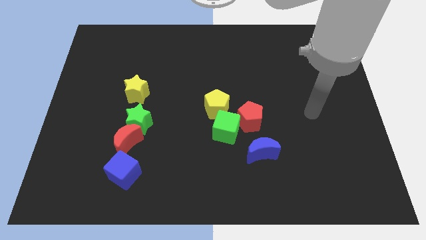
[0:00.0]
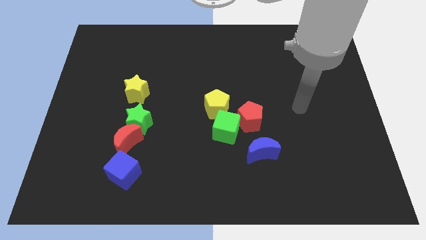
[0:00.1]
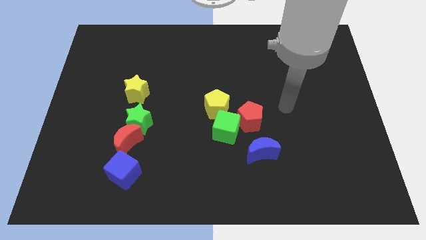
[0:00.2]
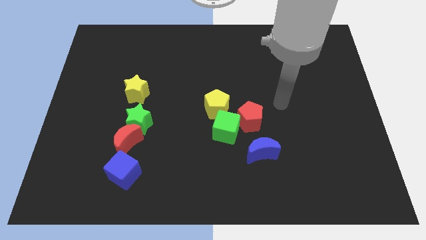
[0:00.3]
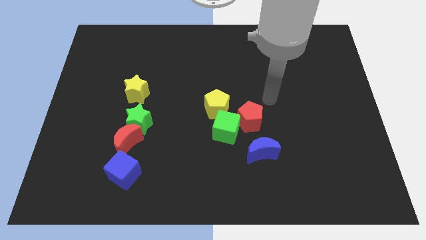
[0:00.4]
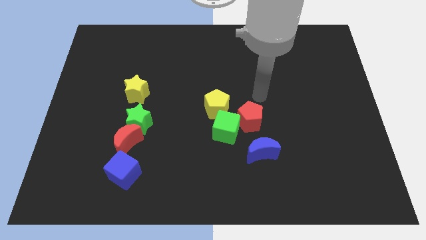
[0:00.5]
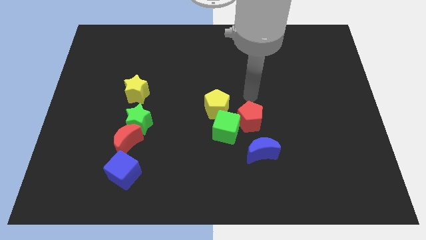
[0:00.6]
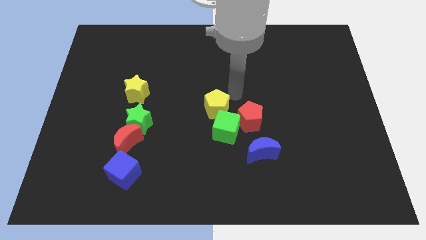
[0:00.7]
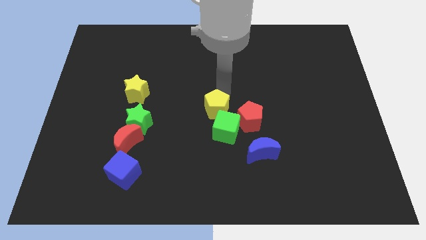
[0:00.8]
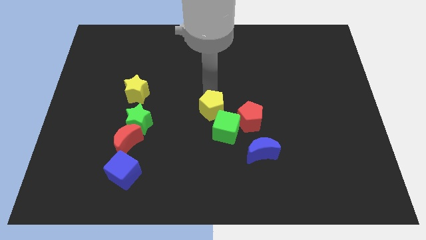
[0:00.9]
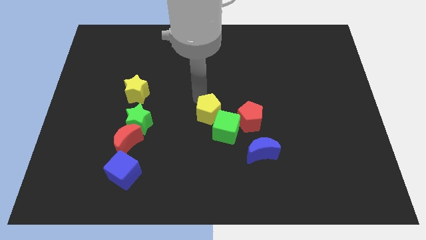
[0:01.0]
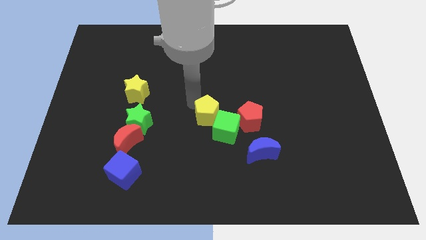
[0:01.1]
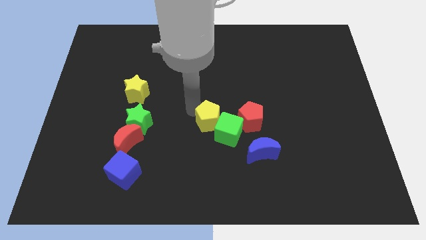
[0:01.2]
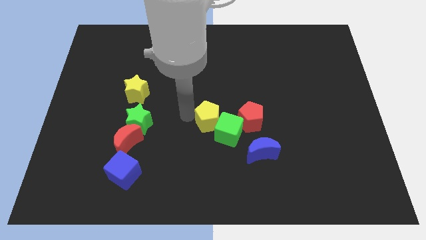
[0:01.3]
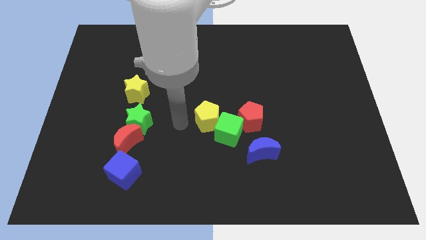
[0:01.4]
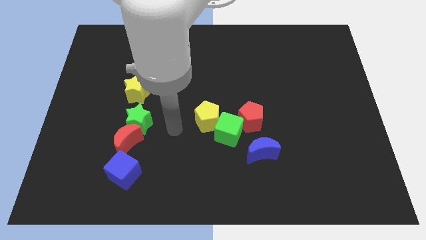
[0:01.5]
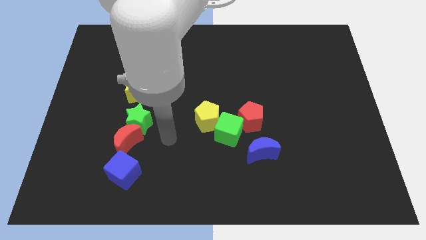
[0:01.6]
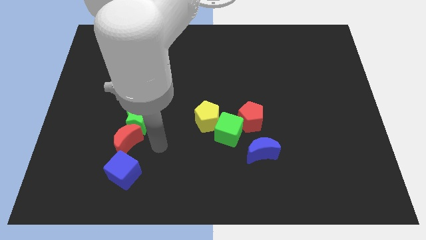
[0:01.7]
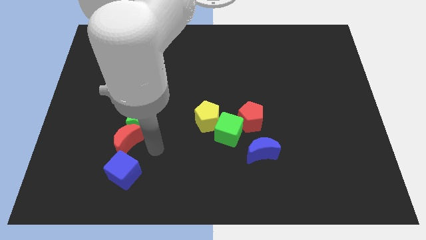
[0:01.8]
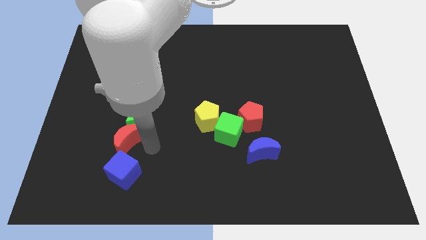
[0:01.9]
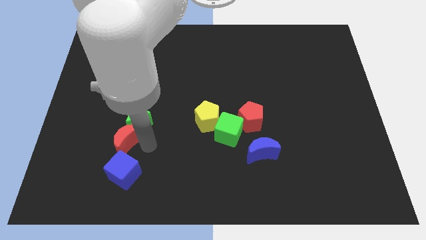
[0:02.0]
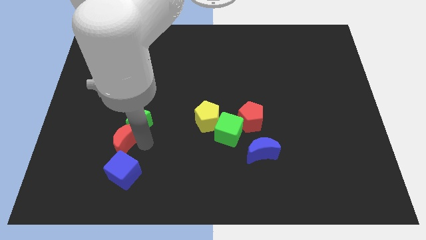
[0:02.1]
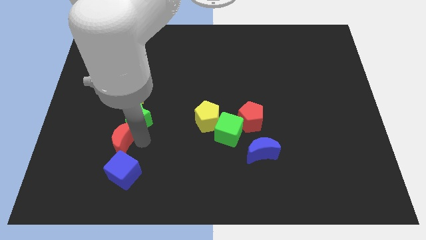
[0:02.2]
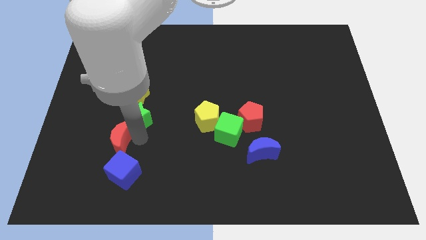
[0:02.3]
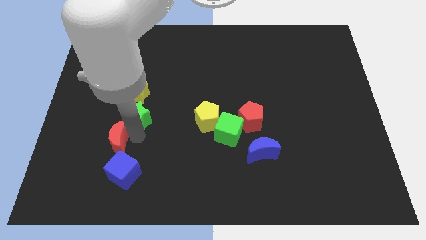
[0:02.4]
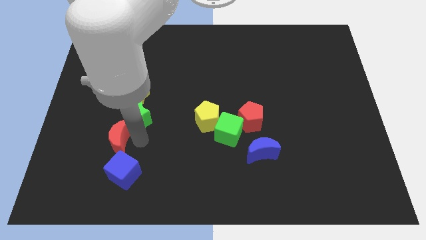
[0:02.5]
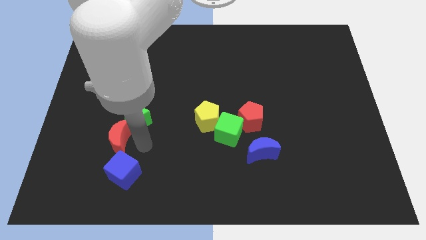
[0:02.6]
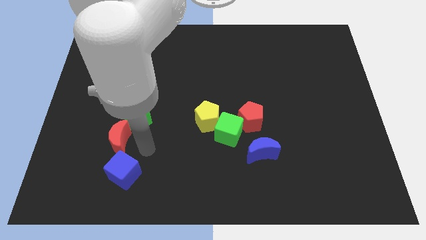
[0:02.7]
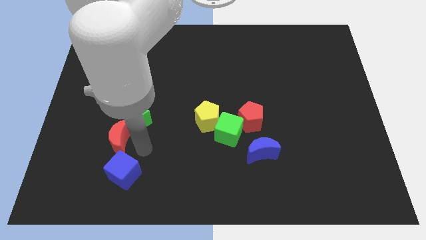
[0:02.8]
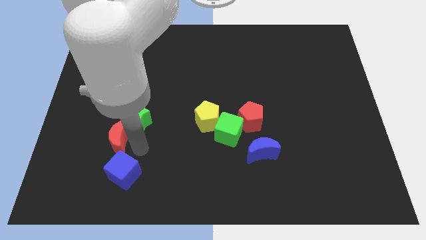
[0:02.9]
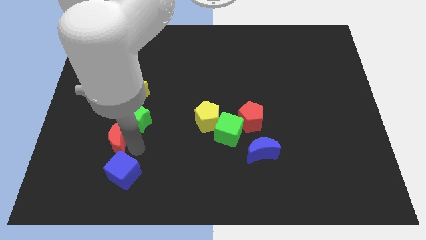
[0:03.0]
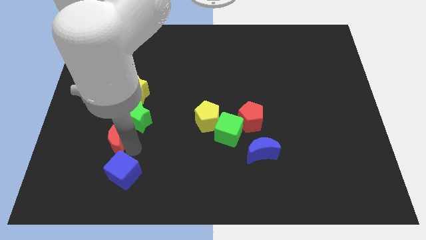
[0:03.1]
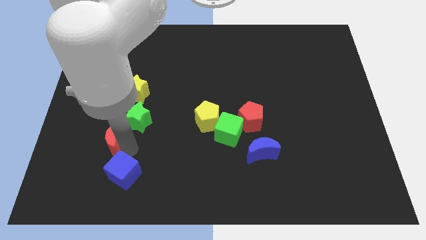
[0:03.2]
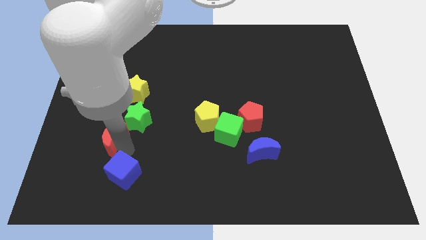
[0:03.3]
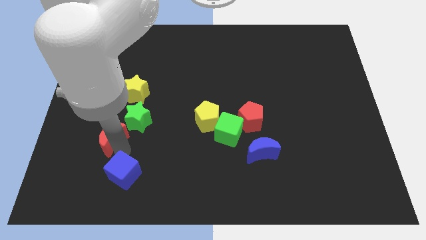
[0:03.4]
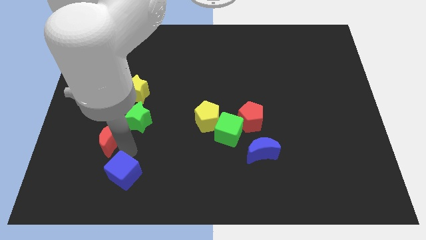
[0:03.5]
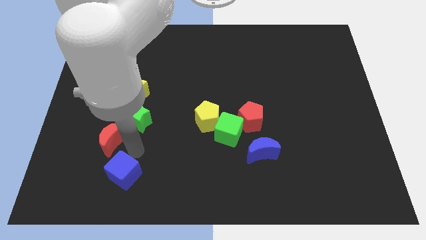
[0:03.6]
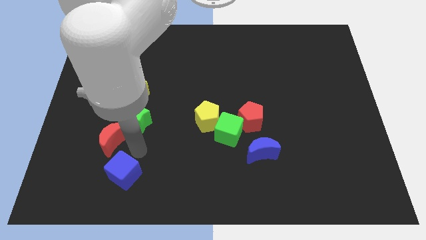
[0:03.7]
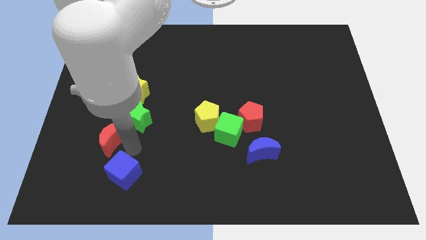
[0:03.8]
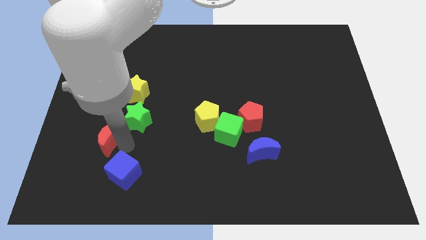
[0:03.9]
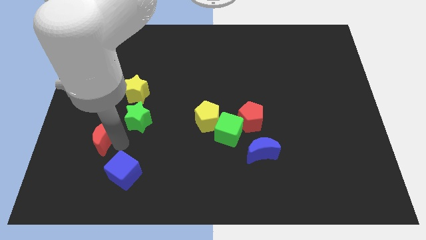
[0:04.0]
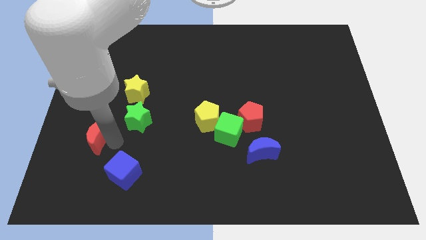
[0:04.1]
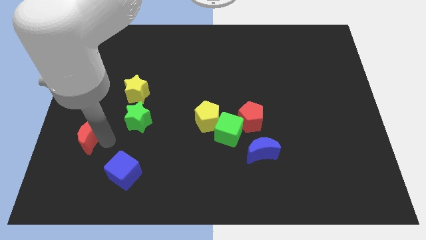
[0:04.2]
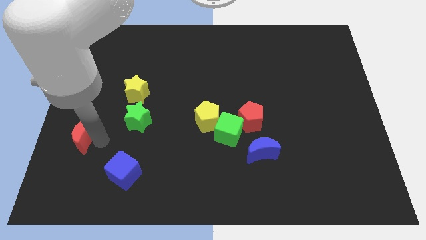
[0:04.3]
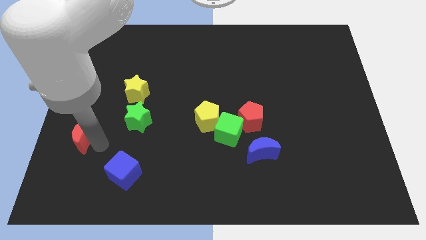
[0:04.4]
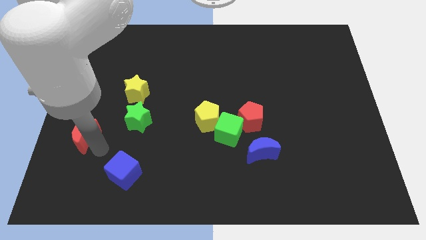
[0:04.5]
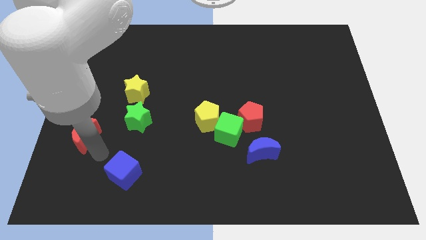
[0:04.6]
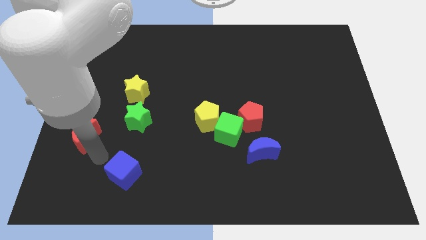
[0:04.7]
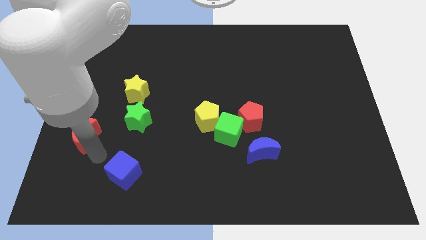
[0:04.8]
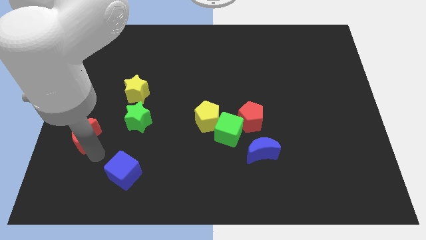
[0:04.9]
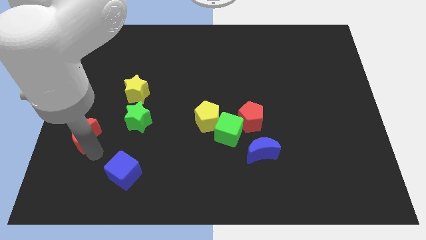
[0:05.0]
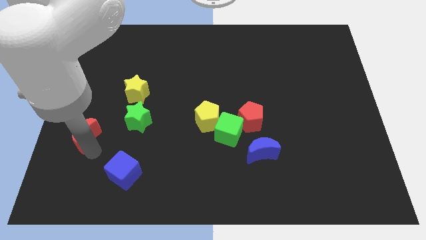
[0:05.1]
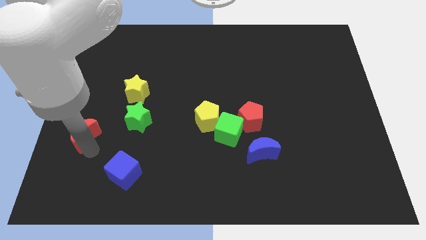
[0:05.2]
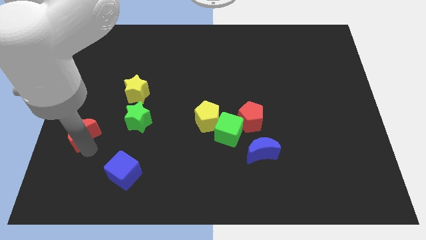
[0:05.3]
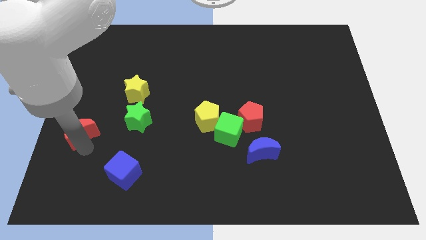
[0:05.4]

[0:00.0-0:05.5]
slide the red moon to the left side of the board

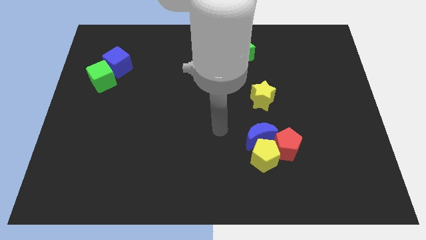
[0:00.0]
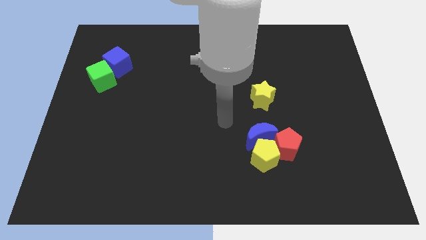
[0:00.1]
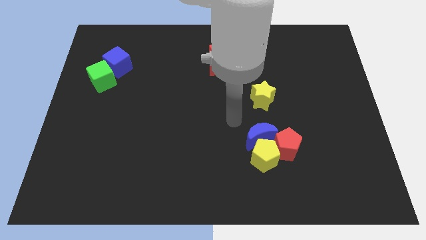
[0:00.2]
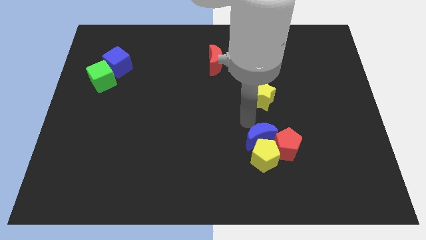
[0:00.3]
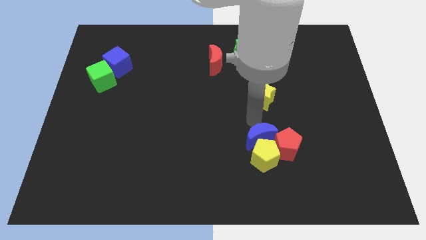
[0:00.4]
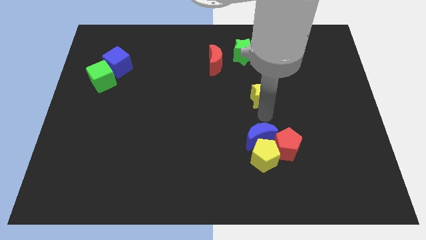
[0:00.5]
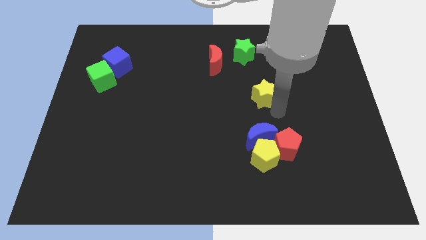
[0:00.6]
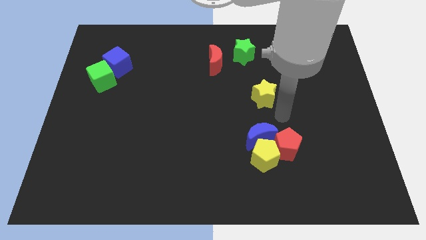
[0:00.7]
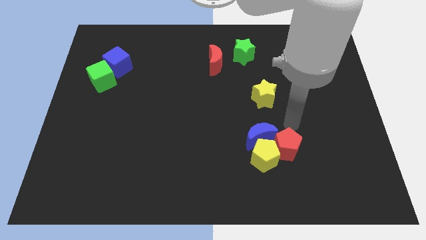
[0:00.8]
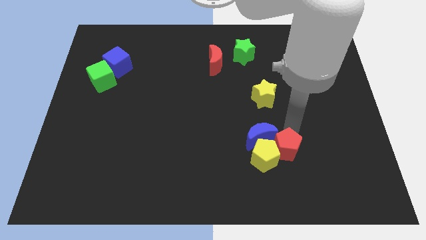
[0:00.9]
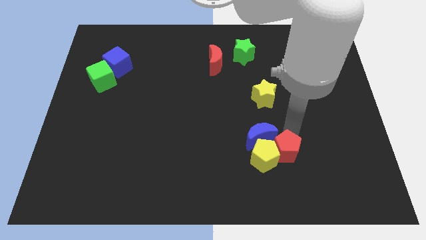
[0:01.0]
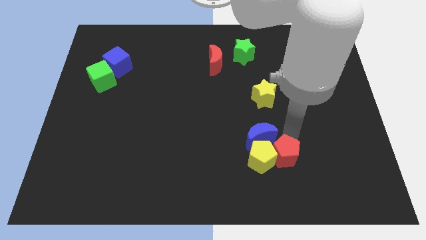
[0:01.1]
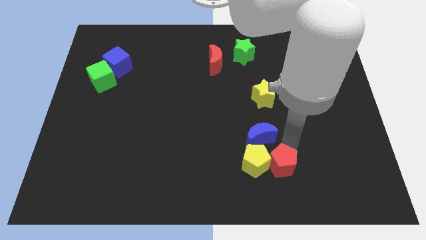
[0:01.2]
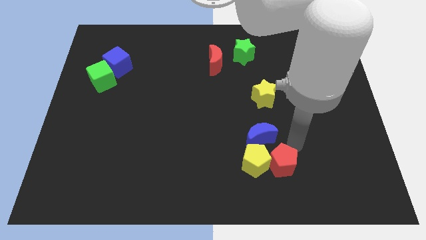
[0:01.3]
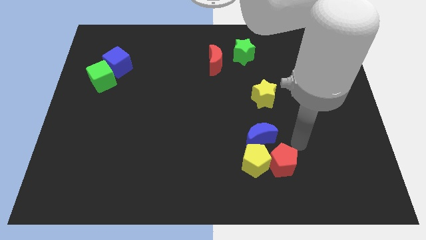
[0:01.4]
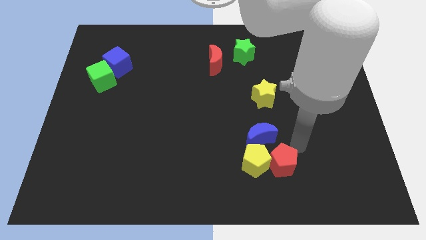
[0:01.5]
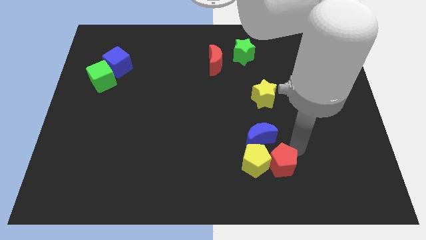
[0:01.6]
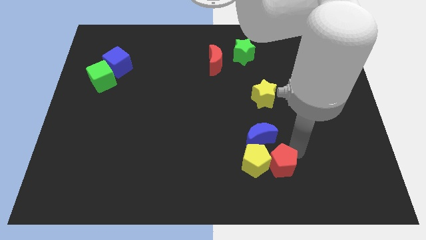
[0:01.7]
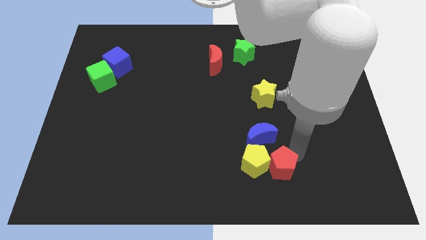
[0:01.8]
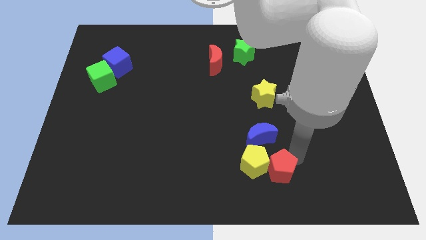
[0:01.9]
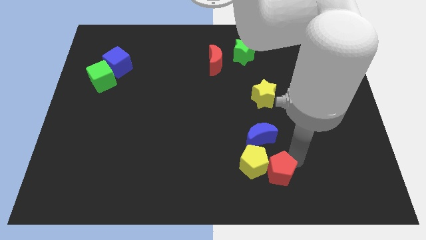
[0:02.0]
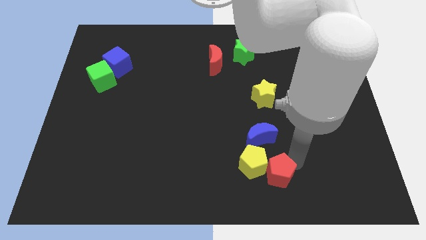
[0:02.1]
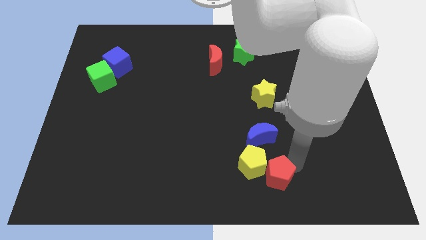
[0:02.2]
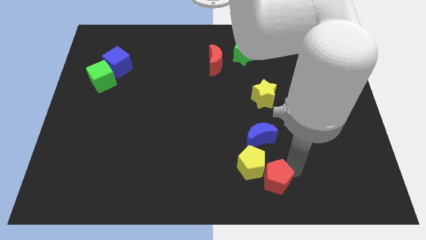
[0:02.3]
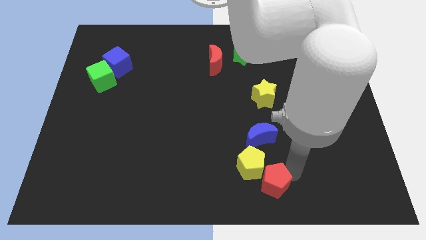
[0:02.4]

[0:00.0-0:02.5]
push the red pentagon to the bottom side
